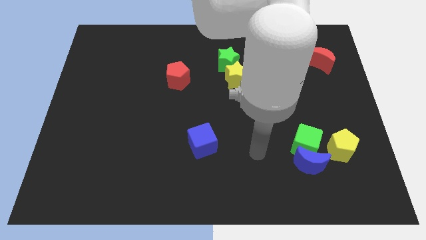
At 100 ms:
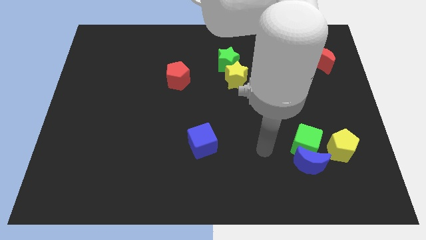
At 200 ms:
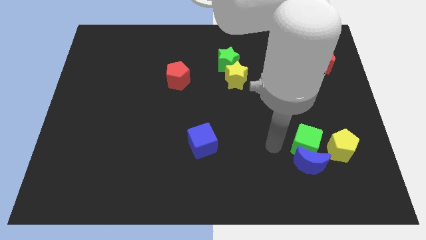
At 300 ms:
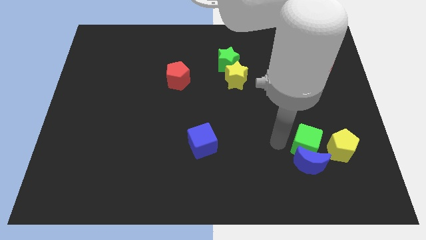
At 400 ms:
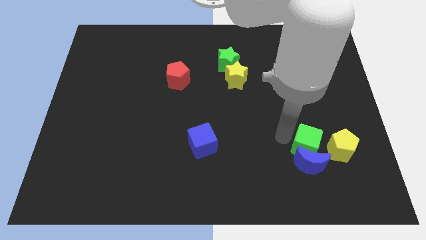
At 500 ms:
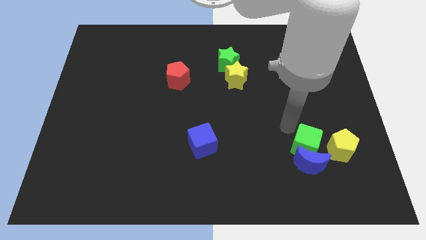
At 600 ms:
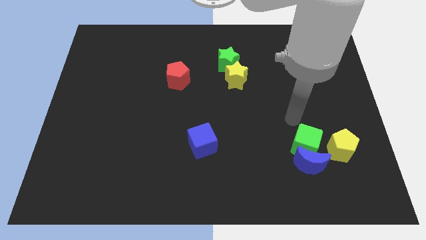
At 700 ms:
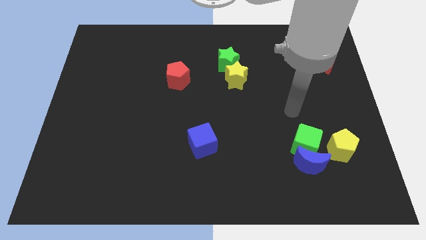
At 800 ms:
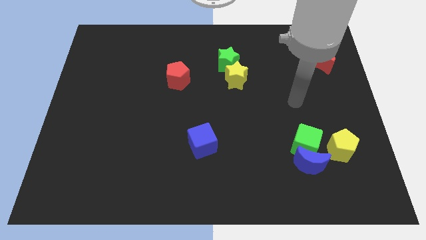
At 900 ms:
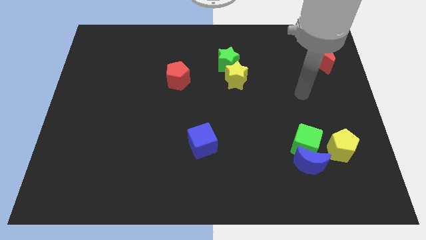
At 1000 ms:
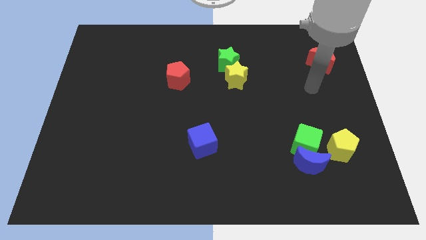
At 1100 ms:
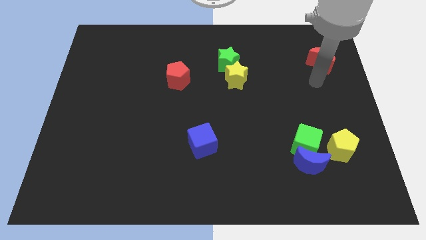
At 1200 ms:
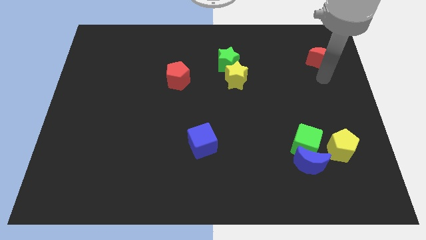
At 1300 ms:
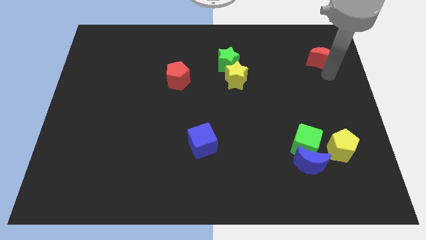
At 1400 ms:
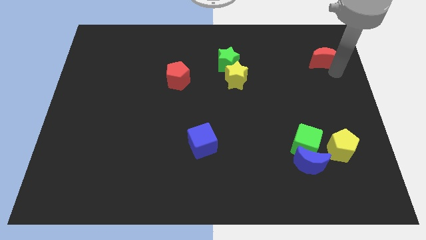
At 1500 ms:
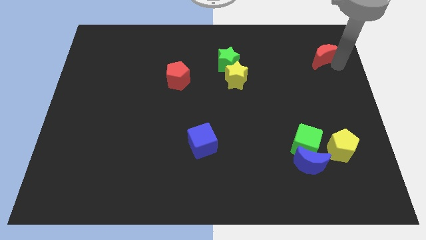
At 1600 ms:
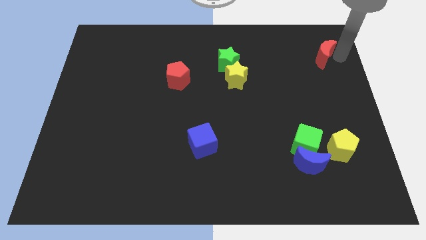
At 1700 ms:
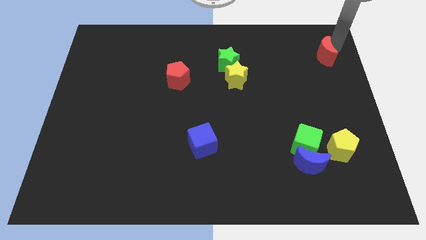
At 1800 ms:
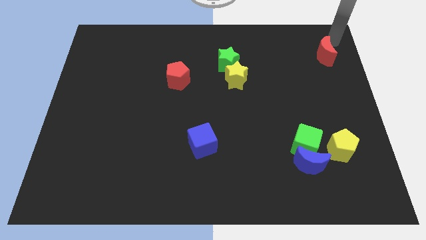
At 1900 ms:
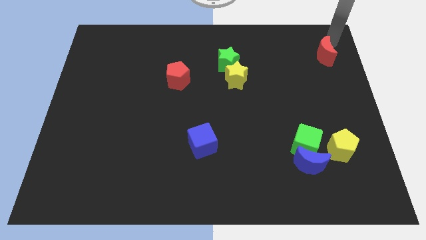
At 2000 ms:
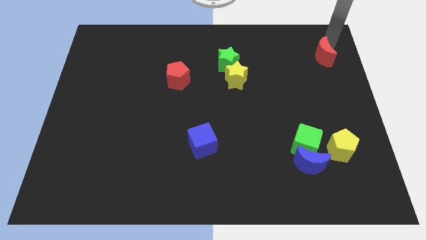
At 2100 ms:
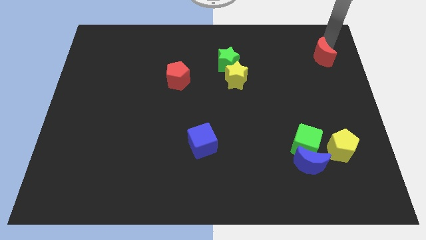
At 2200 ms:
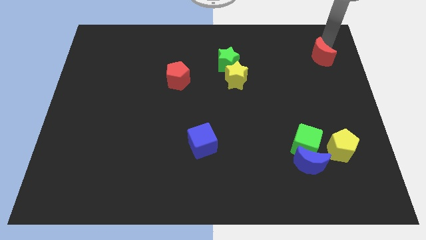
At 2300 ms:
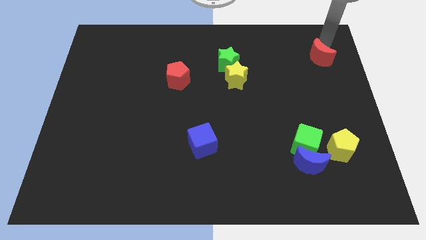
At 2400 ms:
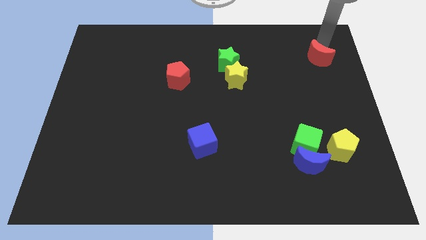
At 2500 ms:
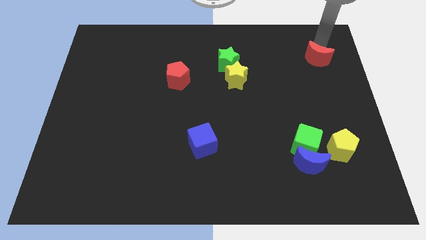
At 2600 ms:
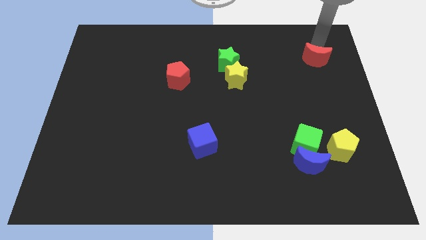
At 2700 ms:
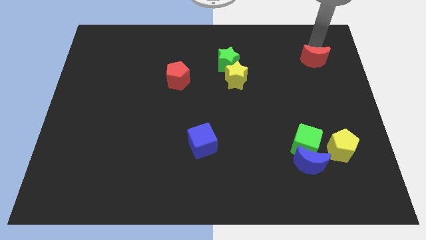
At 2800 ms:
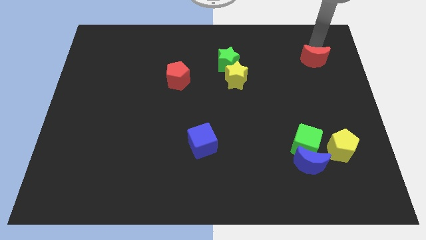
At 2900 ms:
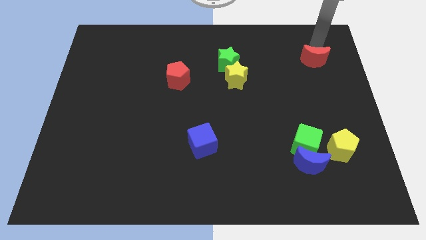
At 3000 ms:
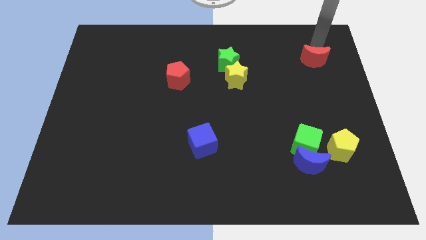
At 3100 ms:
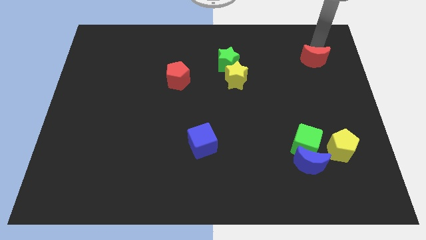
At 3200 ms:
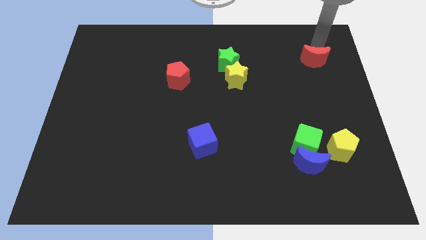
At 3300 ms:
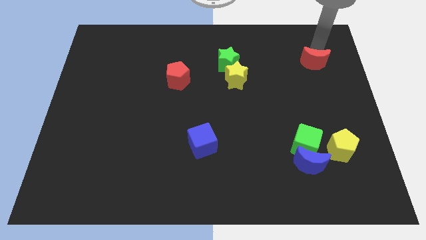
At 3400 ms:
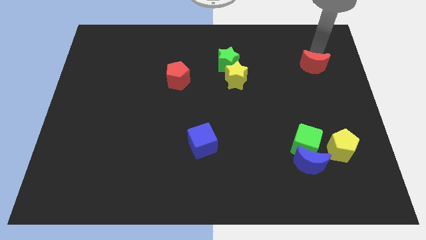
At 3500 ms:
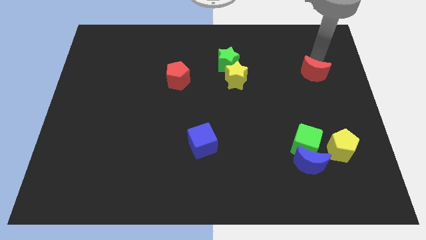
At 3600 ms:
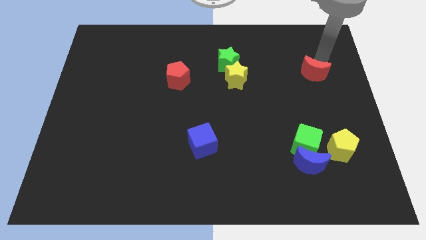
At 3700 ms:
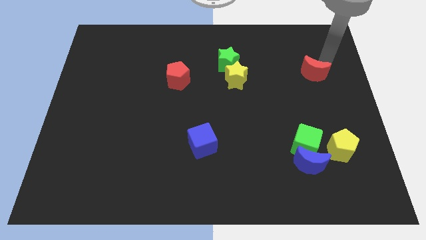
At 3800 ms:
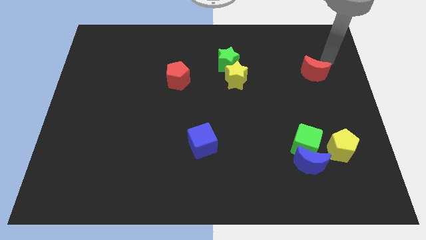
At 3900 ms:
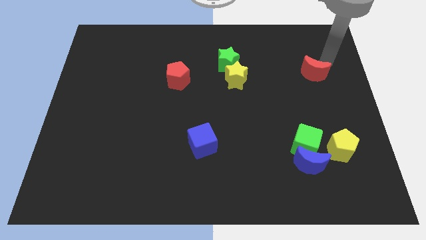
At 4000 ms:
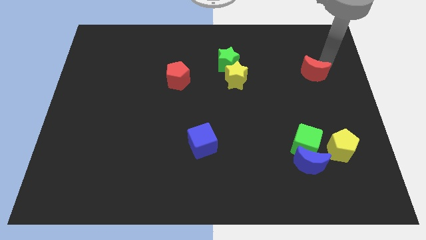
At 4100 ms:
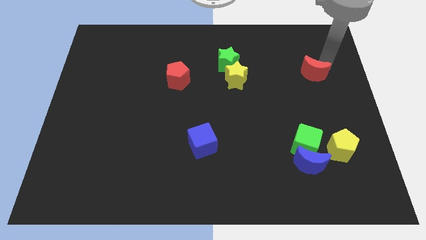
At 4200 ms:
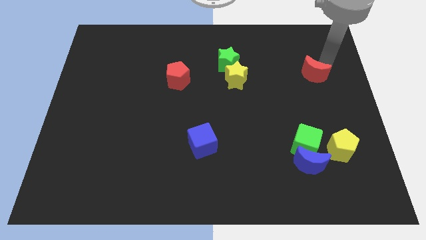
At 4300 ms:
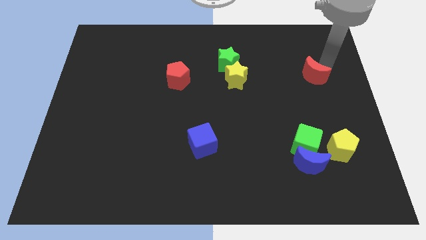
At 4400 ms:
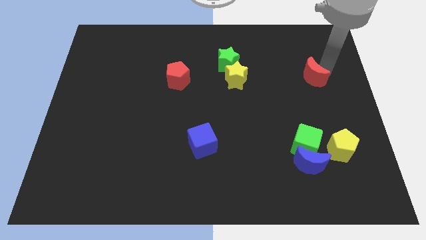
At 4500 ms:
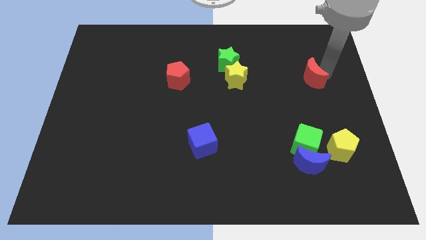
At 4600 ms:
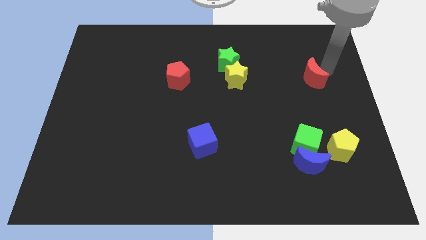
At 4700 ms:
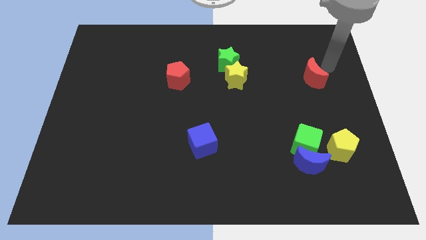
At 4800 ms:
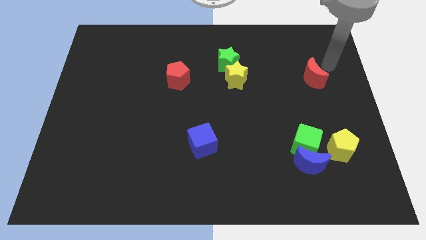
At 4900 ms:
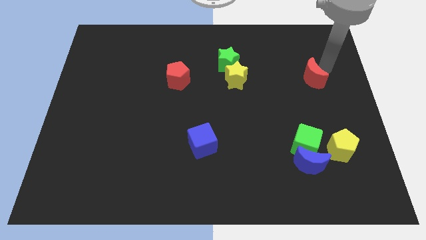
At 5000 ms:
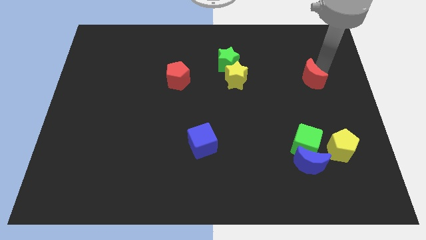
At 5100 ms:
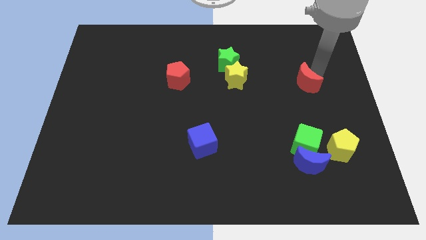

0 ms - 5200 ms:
move the red moon a little bit downwards and to the left

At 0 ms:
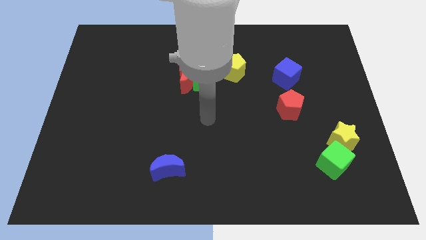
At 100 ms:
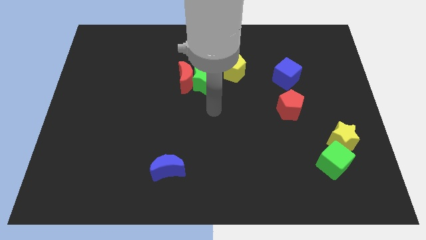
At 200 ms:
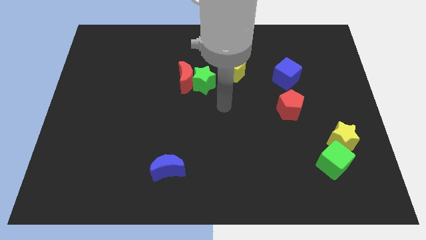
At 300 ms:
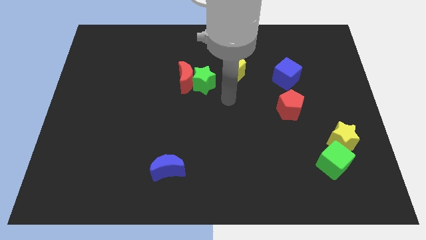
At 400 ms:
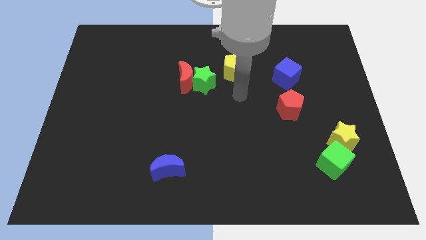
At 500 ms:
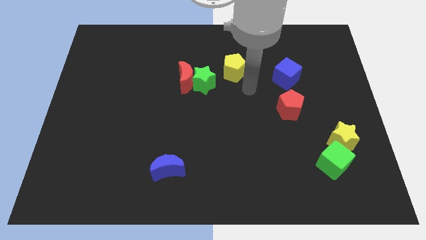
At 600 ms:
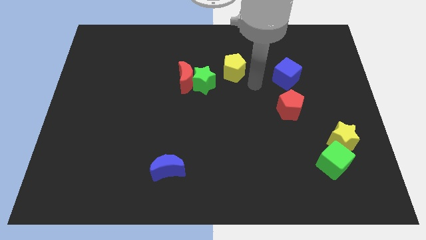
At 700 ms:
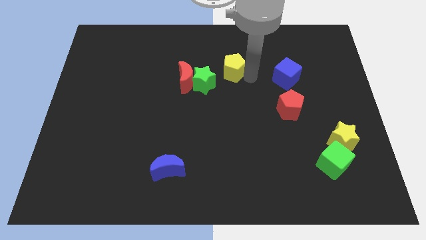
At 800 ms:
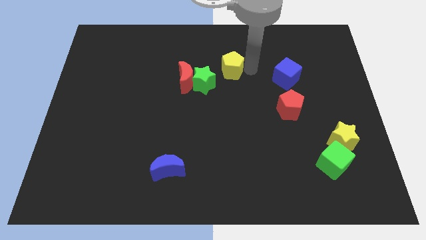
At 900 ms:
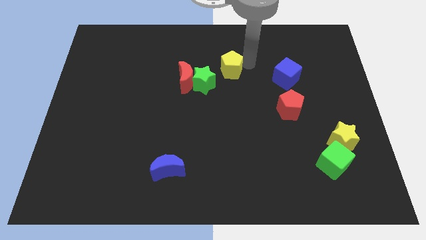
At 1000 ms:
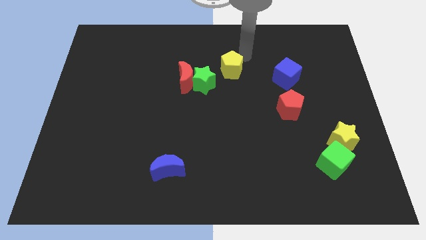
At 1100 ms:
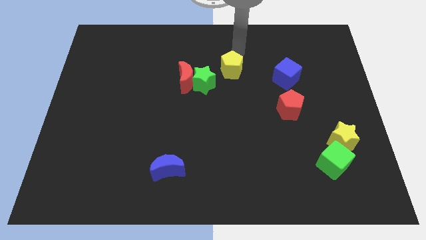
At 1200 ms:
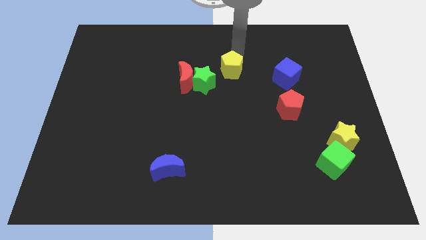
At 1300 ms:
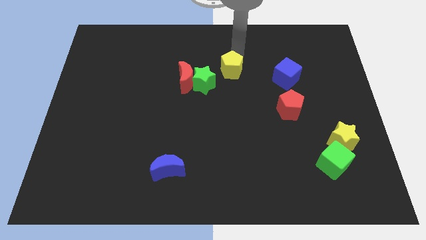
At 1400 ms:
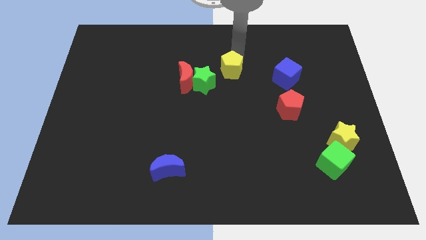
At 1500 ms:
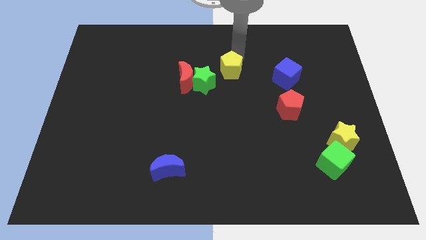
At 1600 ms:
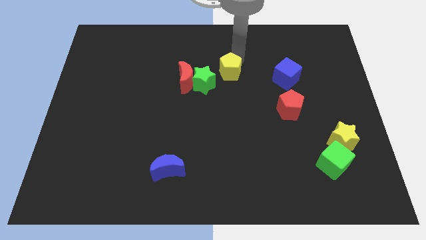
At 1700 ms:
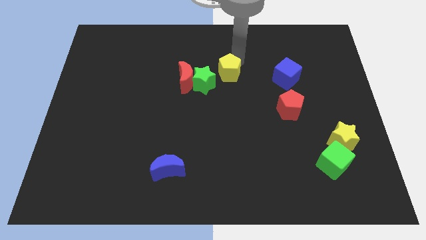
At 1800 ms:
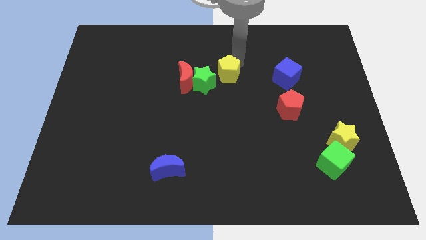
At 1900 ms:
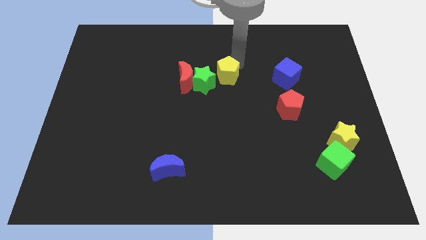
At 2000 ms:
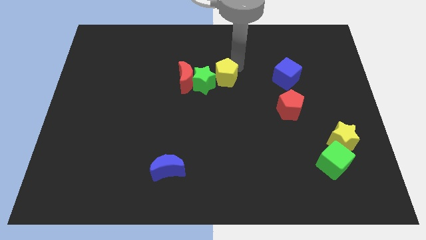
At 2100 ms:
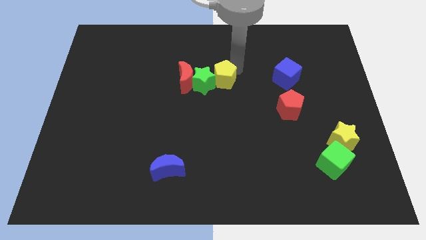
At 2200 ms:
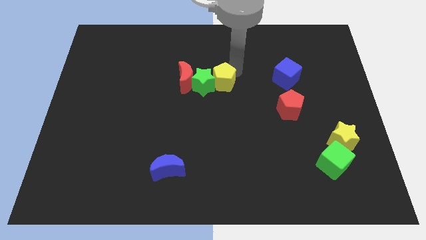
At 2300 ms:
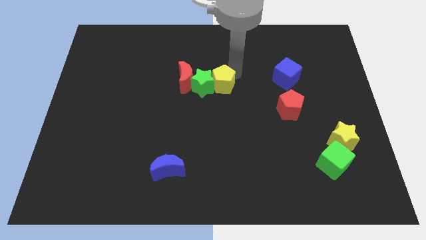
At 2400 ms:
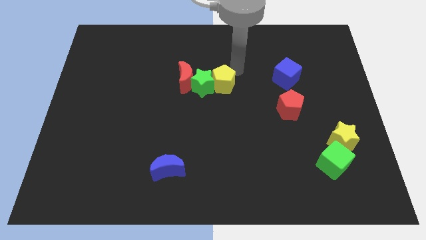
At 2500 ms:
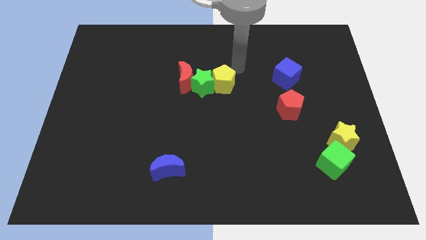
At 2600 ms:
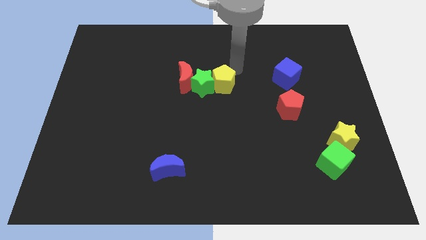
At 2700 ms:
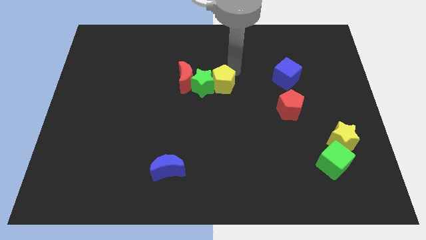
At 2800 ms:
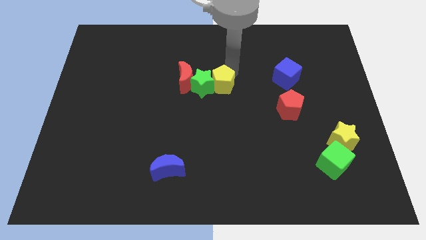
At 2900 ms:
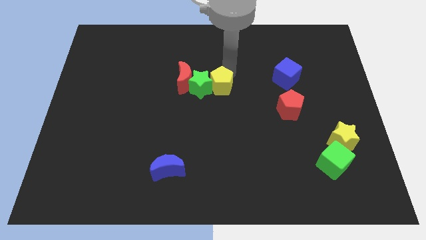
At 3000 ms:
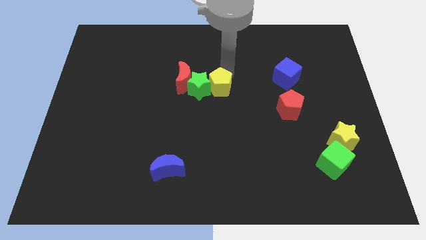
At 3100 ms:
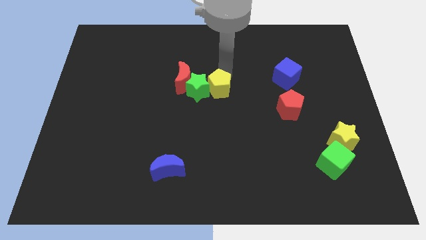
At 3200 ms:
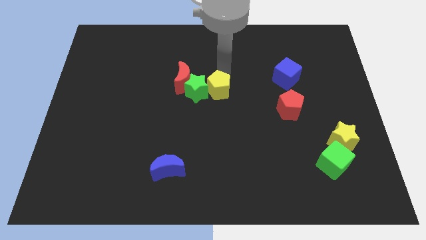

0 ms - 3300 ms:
push the yellow pentagon downwards and left diagonally slightly
